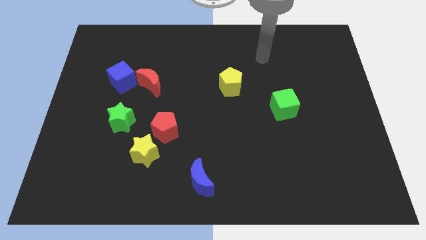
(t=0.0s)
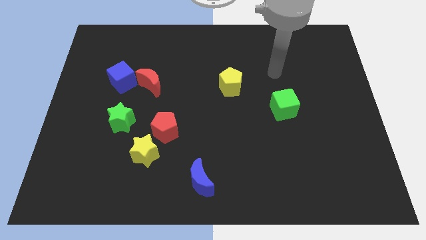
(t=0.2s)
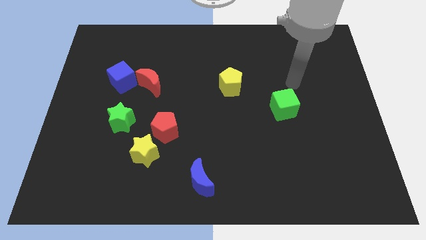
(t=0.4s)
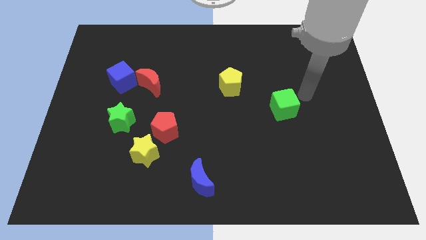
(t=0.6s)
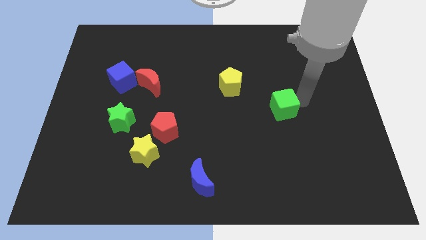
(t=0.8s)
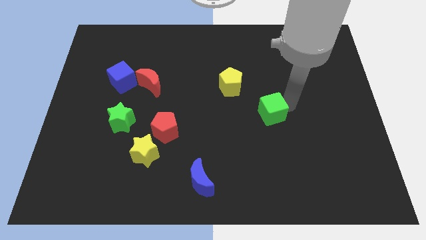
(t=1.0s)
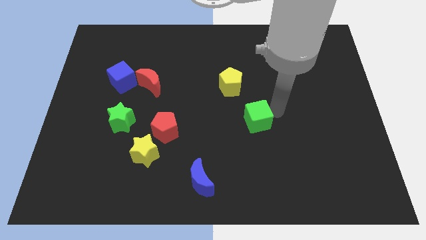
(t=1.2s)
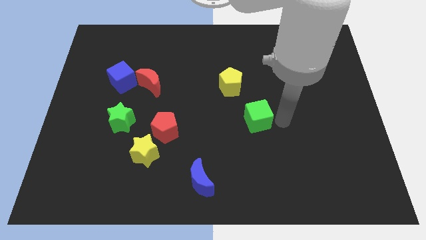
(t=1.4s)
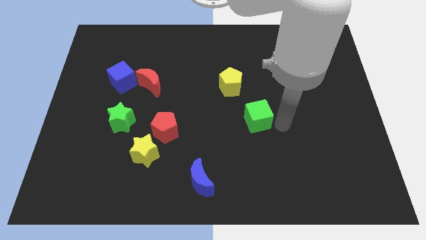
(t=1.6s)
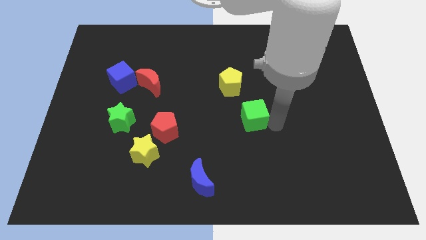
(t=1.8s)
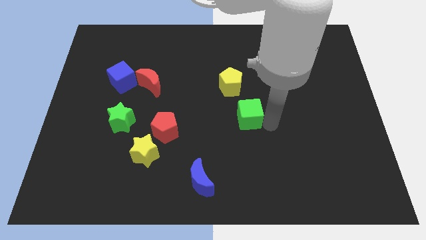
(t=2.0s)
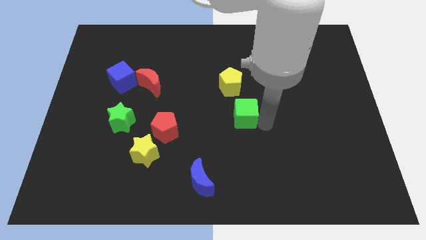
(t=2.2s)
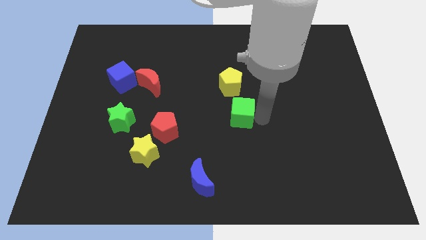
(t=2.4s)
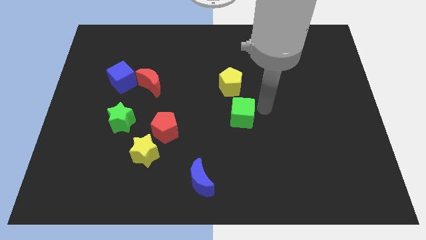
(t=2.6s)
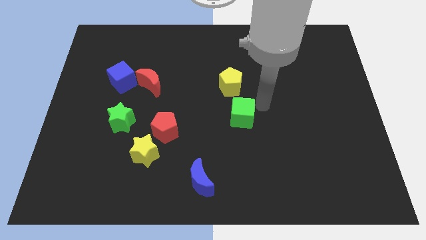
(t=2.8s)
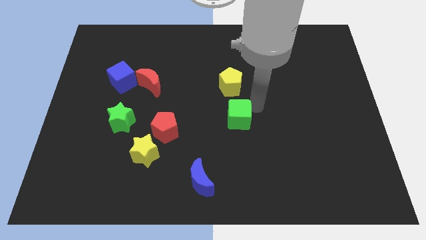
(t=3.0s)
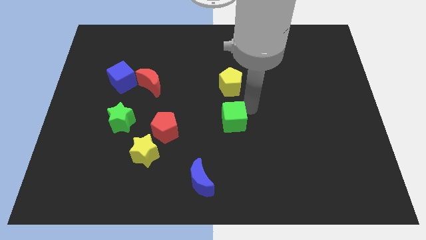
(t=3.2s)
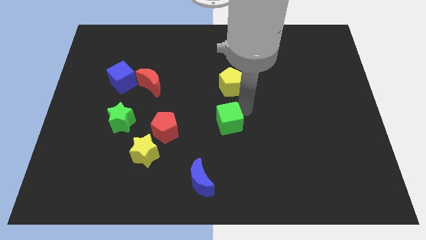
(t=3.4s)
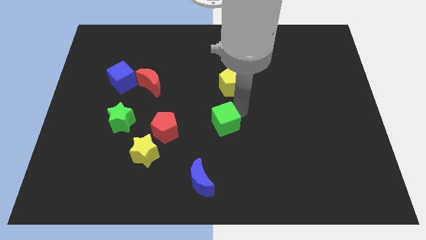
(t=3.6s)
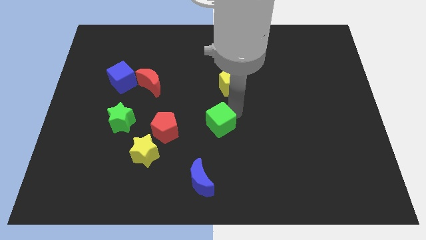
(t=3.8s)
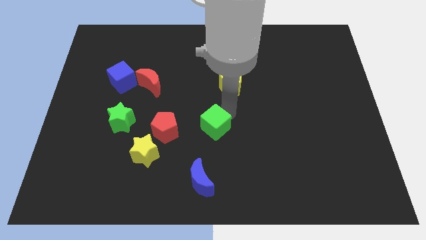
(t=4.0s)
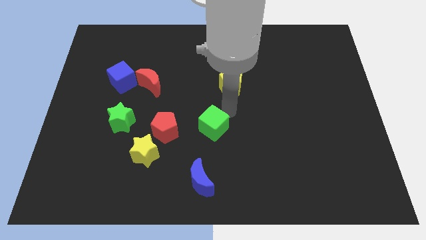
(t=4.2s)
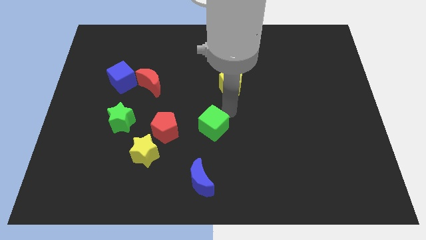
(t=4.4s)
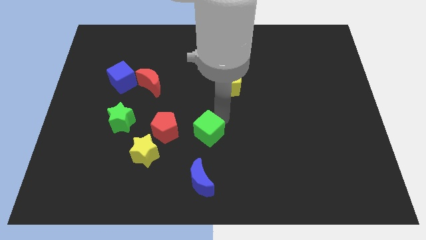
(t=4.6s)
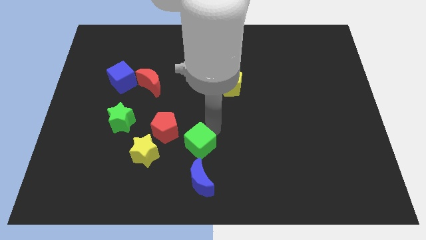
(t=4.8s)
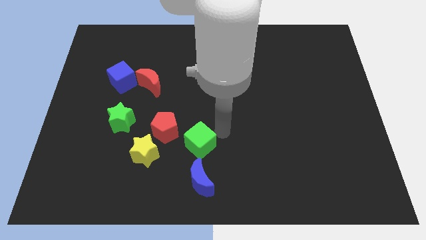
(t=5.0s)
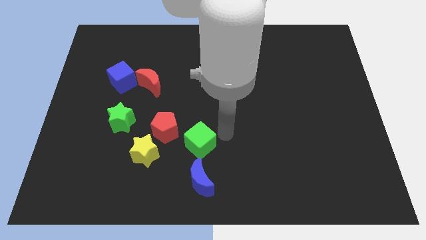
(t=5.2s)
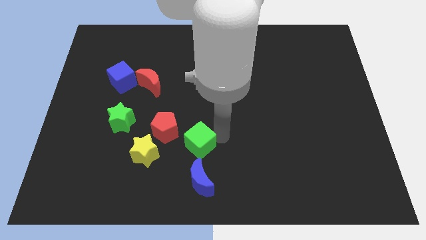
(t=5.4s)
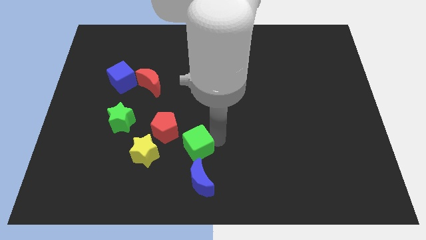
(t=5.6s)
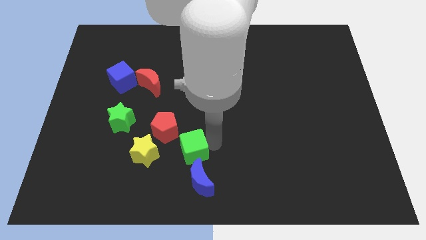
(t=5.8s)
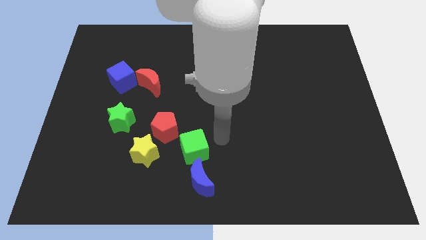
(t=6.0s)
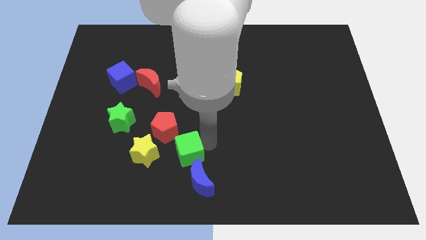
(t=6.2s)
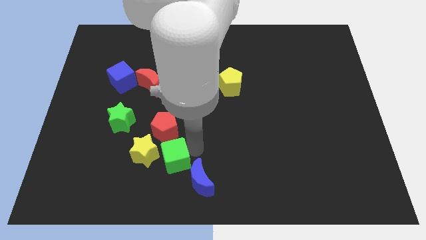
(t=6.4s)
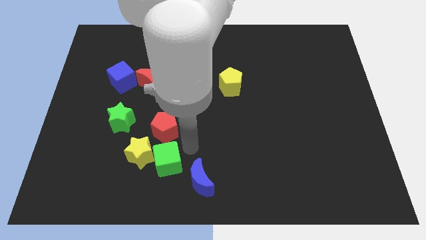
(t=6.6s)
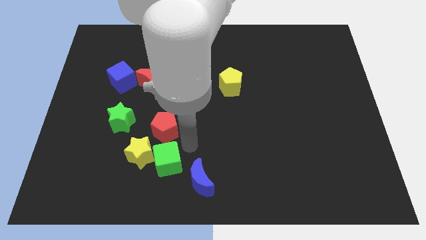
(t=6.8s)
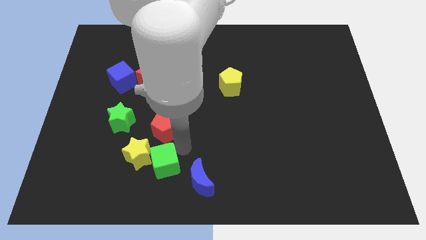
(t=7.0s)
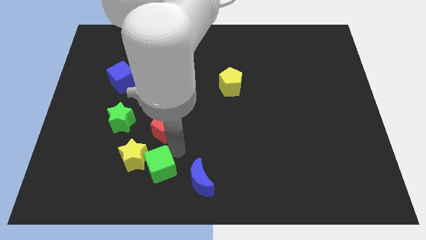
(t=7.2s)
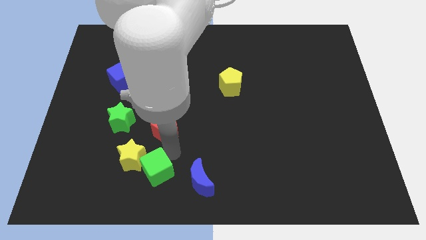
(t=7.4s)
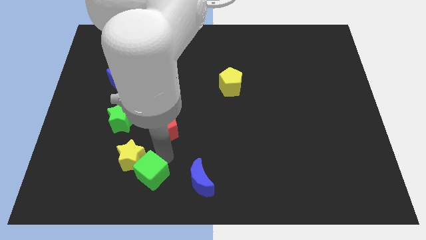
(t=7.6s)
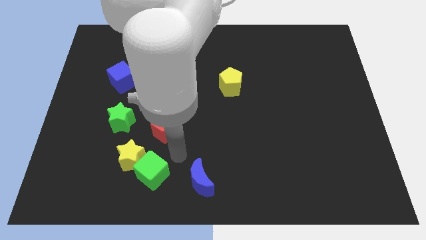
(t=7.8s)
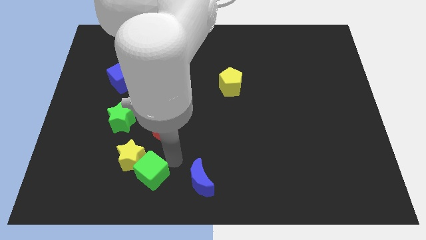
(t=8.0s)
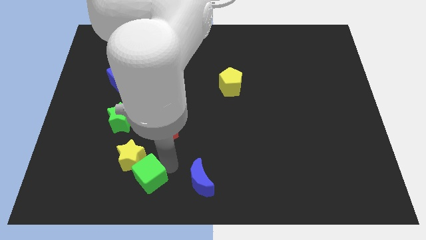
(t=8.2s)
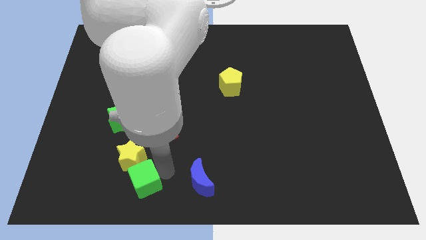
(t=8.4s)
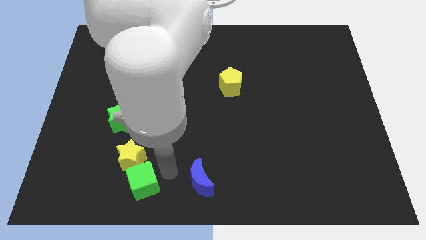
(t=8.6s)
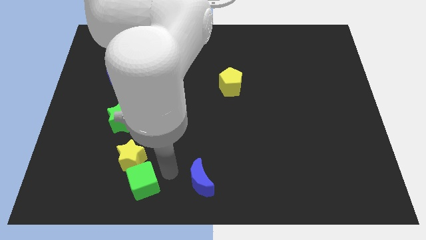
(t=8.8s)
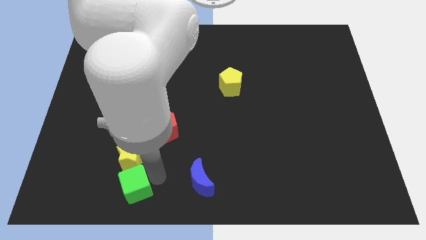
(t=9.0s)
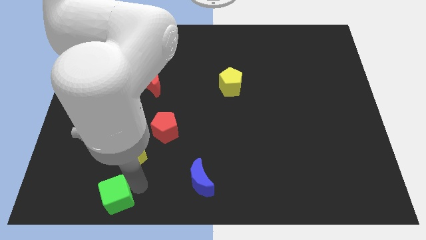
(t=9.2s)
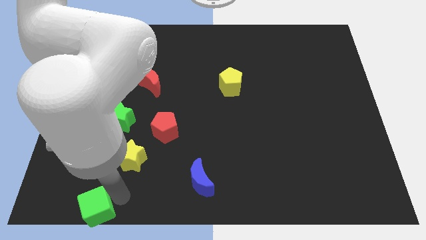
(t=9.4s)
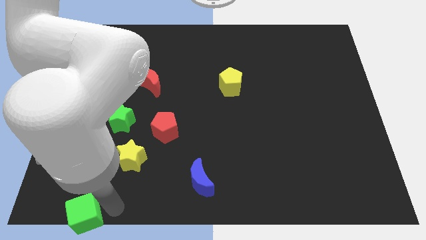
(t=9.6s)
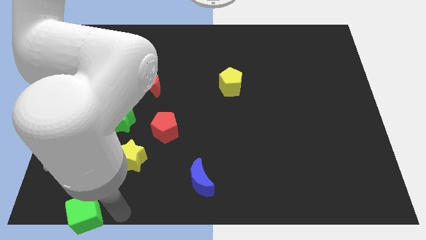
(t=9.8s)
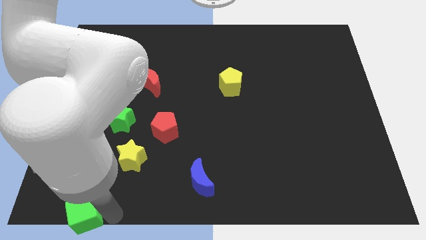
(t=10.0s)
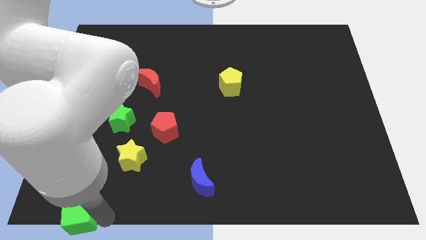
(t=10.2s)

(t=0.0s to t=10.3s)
move the green cube to the bottom left of the board

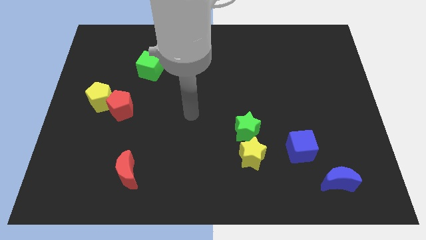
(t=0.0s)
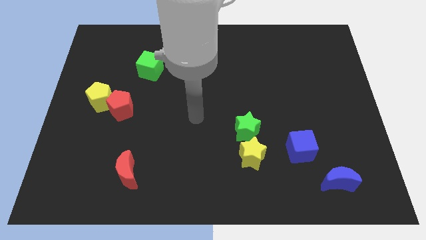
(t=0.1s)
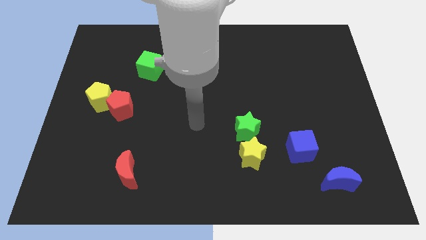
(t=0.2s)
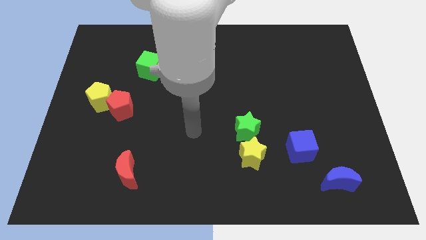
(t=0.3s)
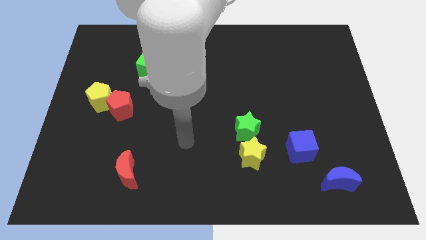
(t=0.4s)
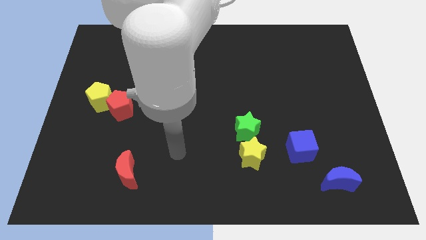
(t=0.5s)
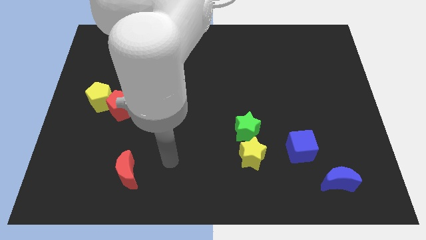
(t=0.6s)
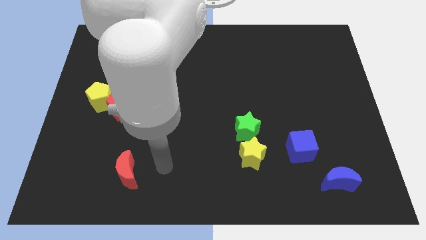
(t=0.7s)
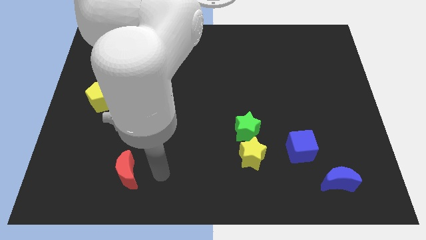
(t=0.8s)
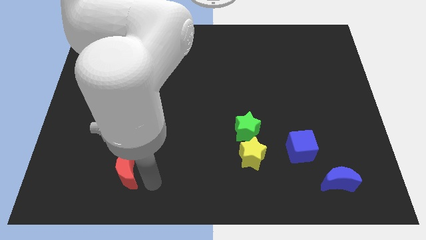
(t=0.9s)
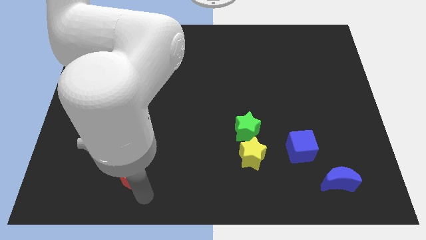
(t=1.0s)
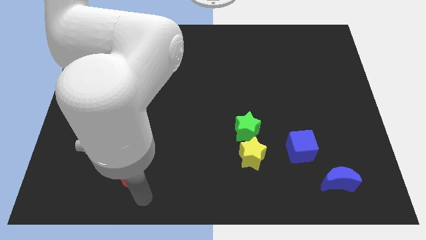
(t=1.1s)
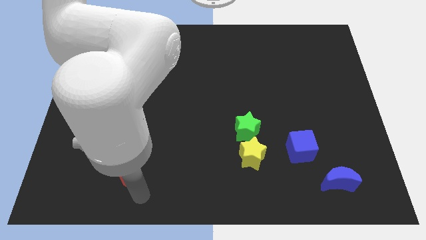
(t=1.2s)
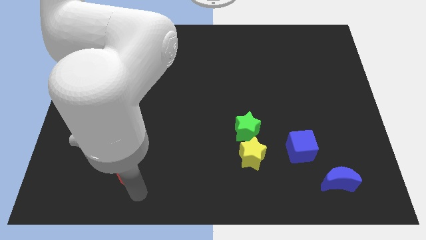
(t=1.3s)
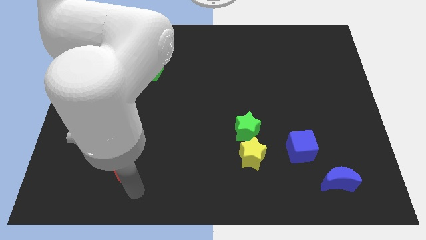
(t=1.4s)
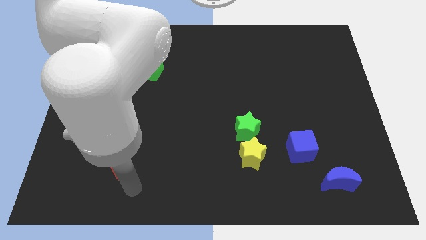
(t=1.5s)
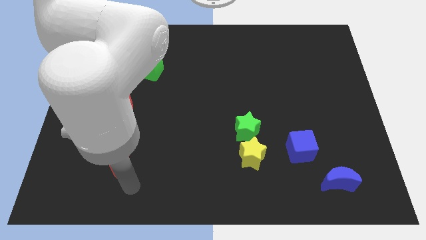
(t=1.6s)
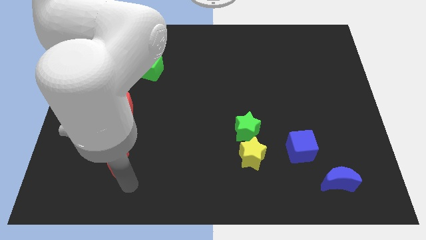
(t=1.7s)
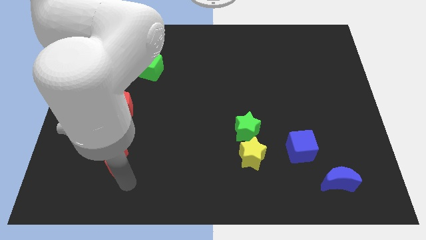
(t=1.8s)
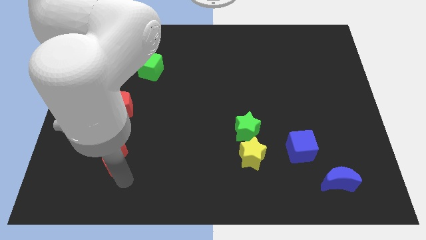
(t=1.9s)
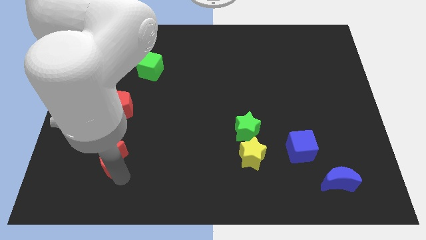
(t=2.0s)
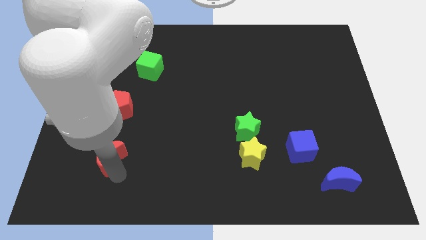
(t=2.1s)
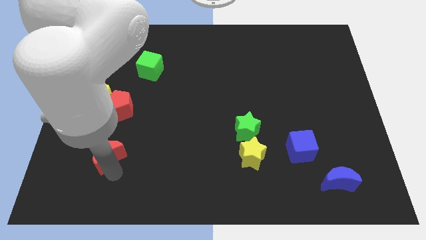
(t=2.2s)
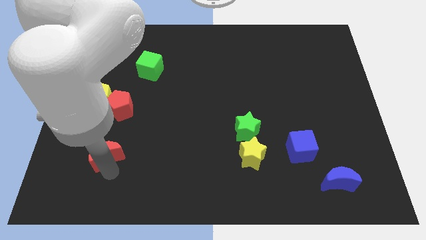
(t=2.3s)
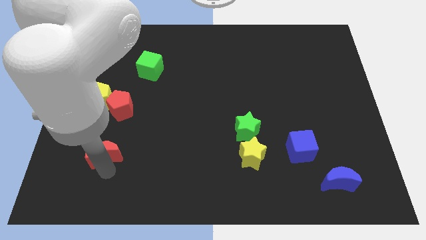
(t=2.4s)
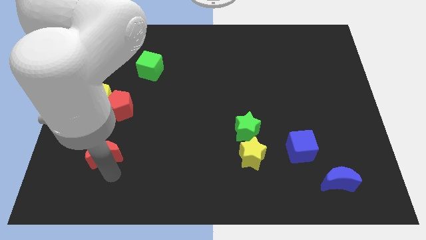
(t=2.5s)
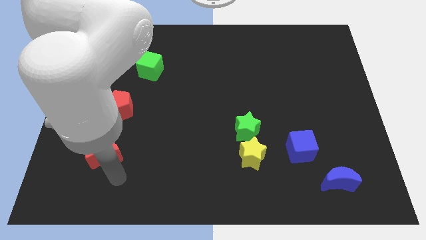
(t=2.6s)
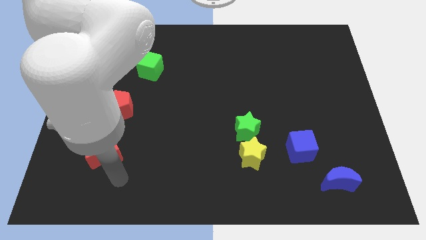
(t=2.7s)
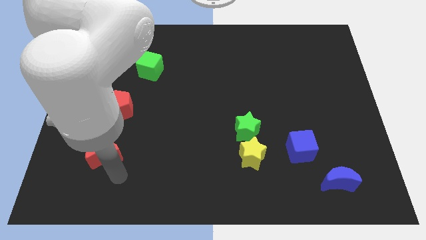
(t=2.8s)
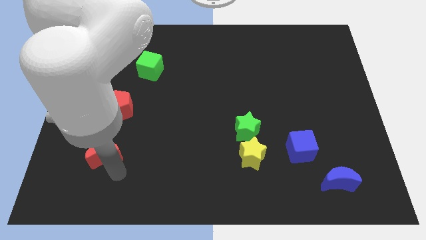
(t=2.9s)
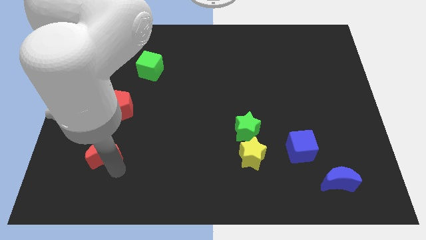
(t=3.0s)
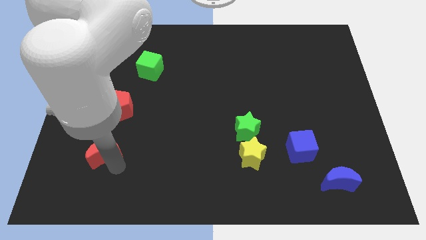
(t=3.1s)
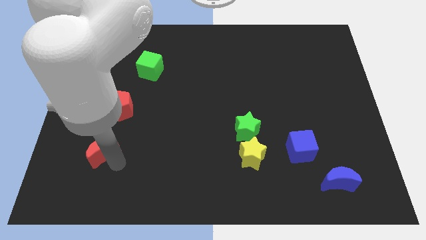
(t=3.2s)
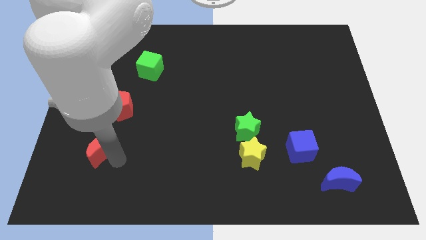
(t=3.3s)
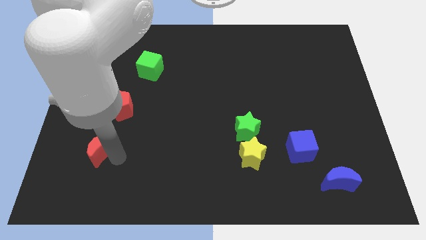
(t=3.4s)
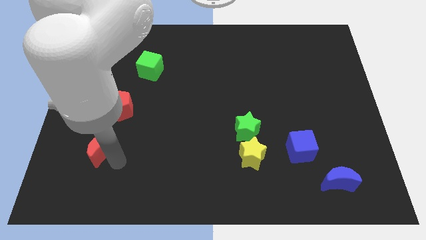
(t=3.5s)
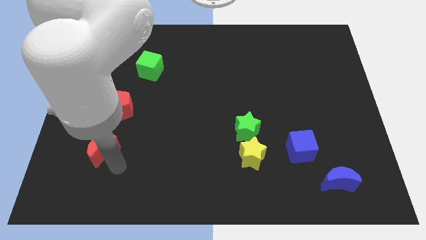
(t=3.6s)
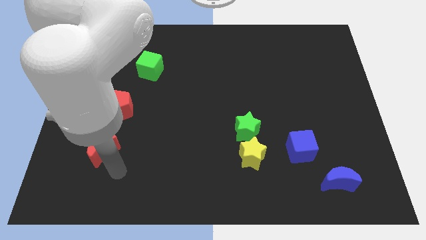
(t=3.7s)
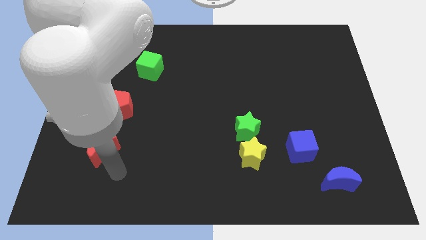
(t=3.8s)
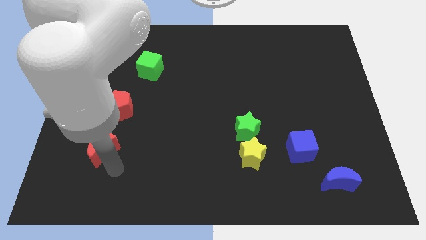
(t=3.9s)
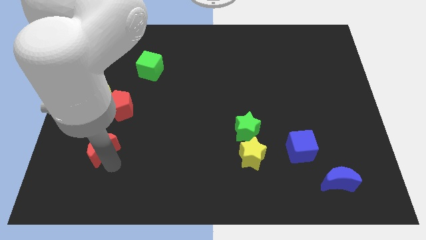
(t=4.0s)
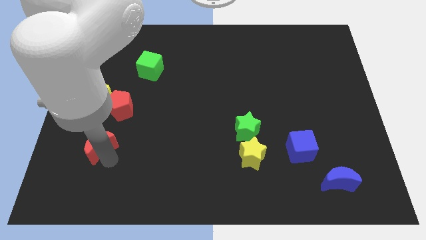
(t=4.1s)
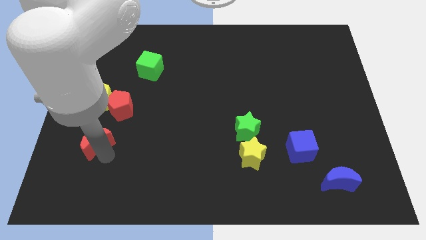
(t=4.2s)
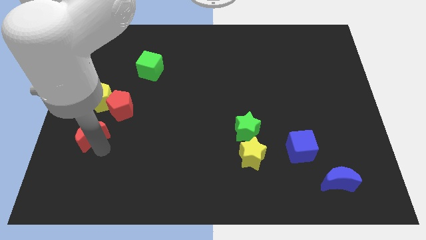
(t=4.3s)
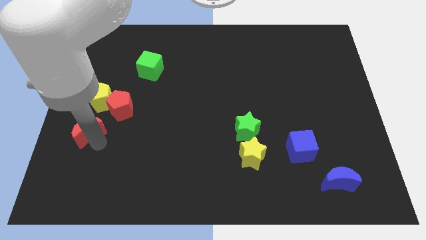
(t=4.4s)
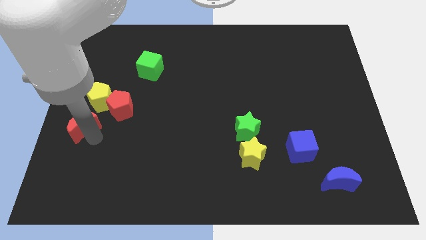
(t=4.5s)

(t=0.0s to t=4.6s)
slide the red moon to the center left
